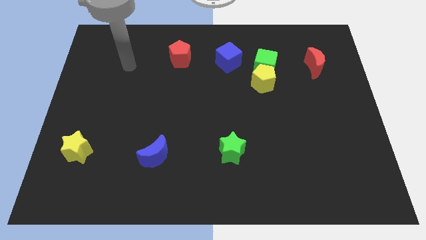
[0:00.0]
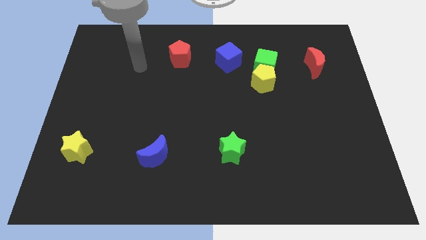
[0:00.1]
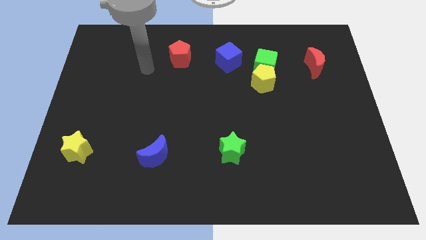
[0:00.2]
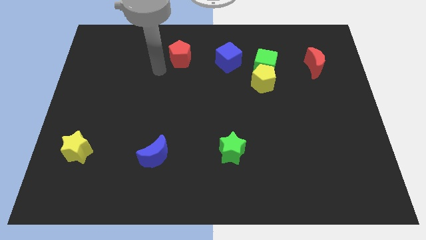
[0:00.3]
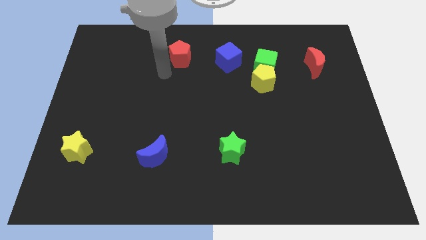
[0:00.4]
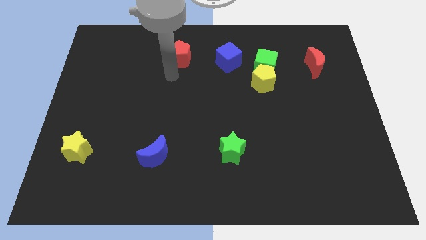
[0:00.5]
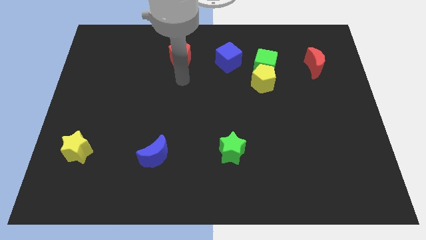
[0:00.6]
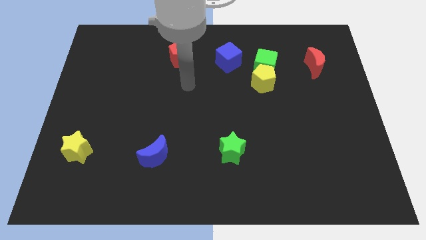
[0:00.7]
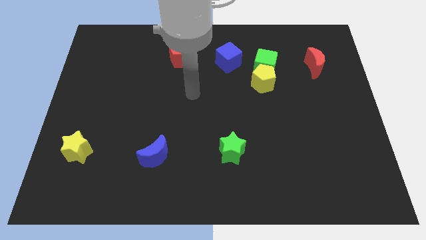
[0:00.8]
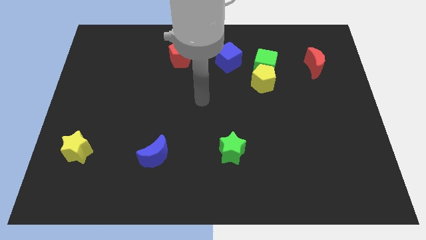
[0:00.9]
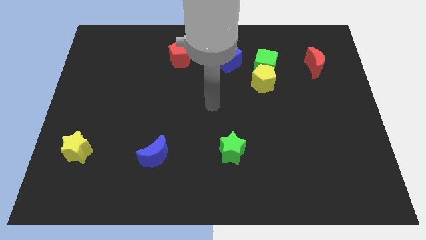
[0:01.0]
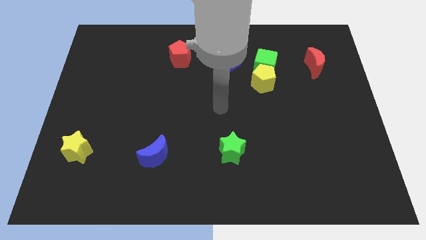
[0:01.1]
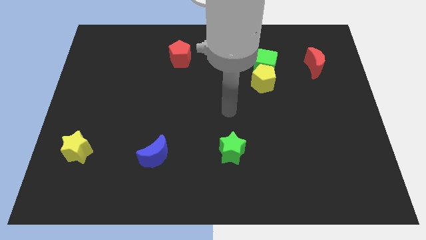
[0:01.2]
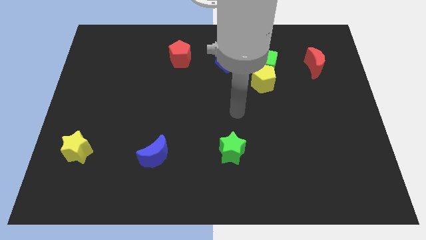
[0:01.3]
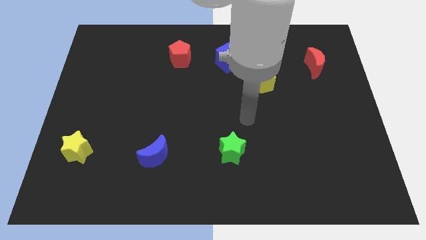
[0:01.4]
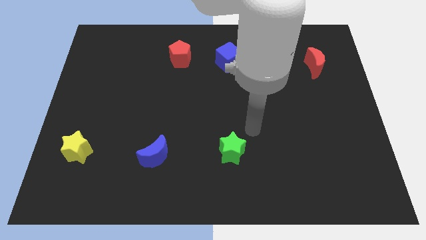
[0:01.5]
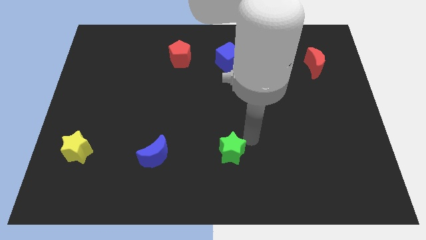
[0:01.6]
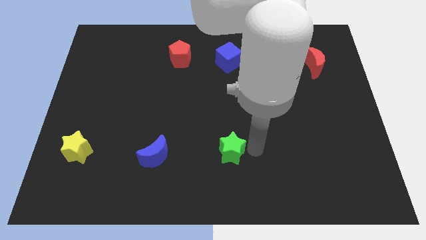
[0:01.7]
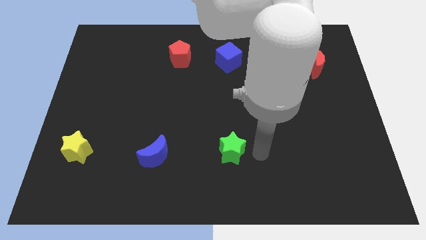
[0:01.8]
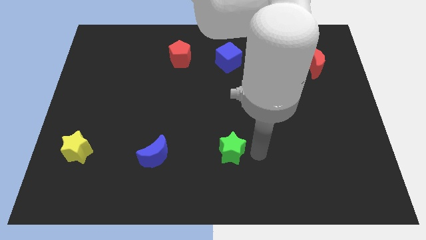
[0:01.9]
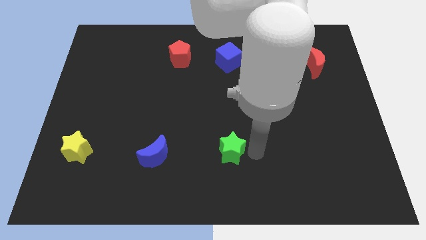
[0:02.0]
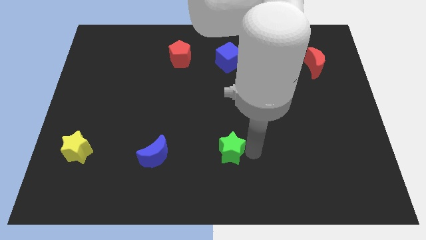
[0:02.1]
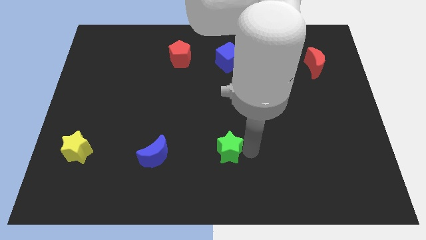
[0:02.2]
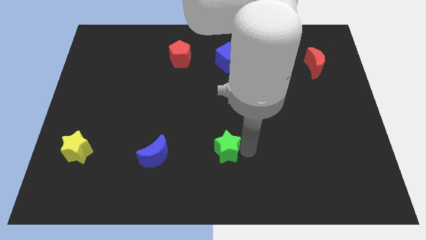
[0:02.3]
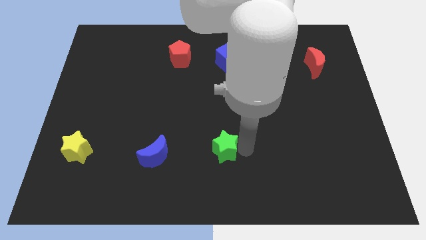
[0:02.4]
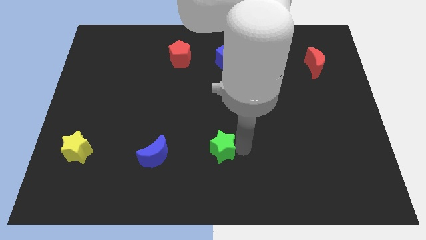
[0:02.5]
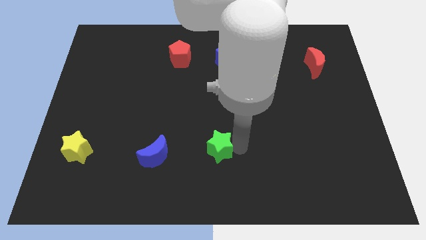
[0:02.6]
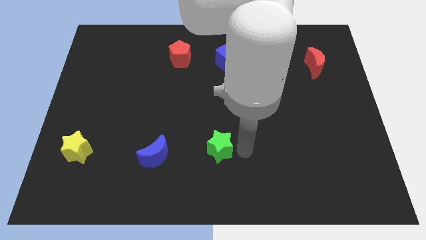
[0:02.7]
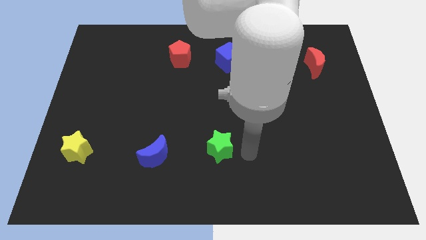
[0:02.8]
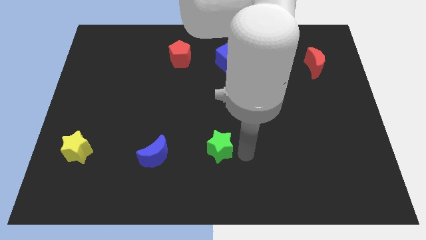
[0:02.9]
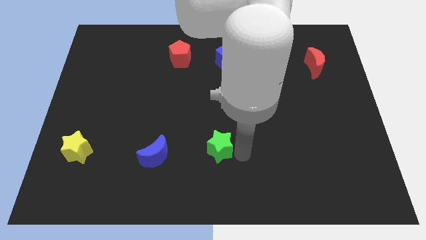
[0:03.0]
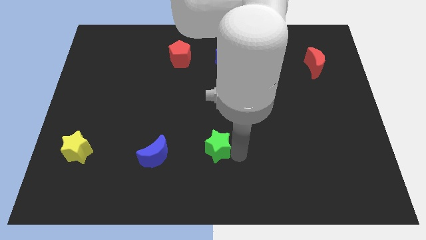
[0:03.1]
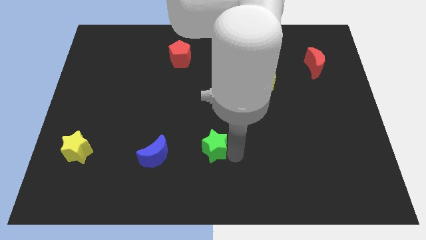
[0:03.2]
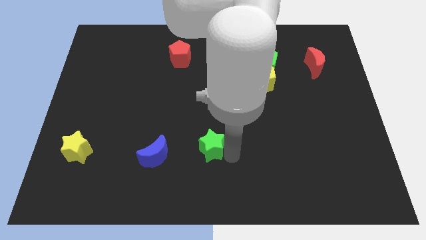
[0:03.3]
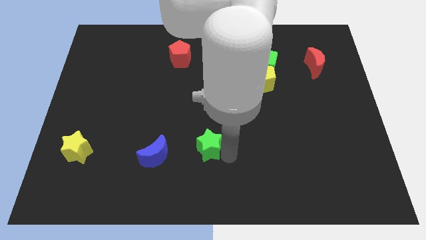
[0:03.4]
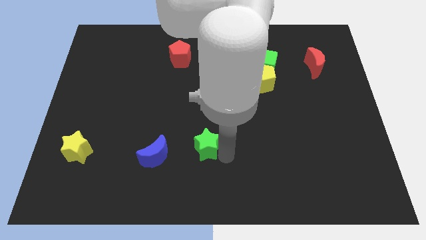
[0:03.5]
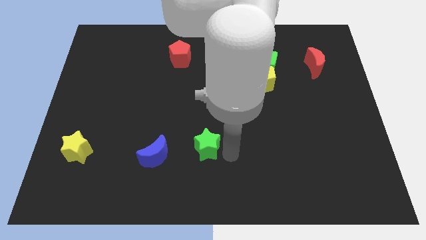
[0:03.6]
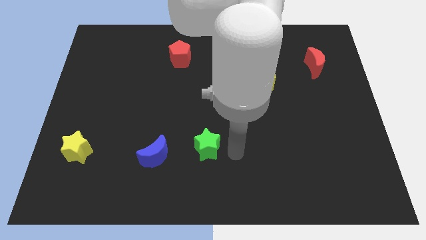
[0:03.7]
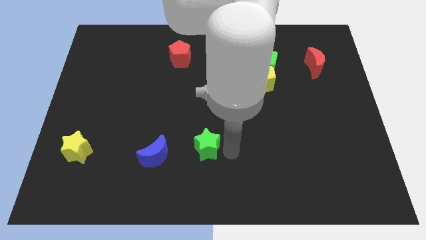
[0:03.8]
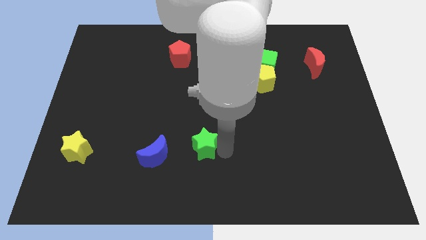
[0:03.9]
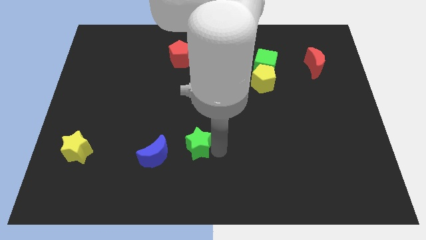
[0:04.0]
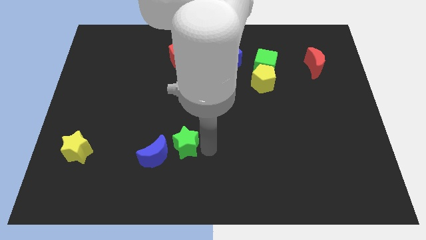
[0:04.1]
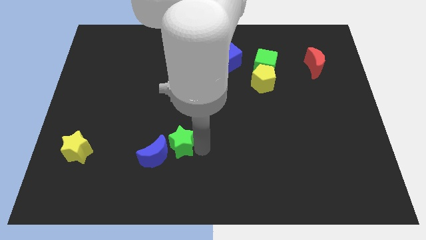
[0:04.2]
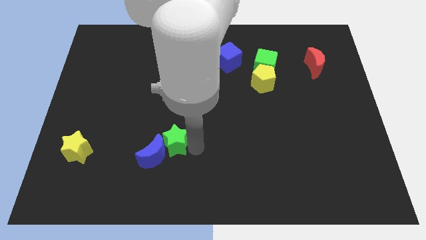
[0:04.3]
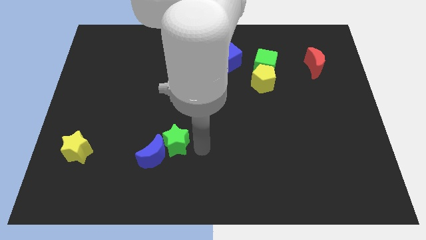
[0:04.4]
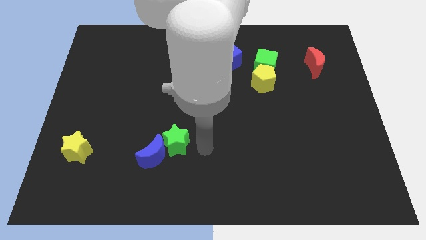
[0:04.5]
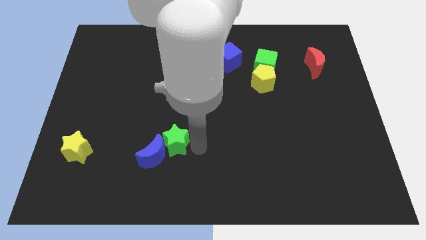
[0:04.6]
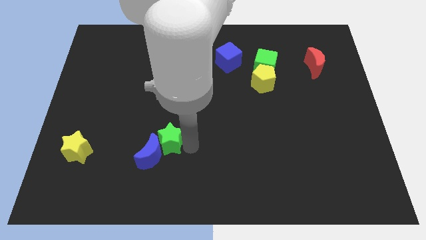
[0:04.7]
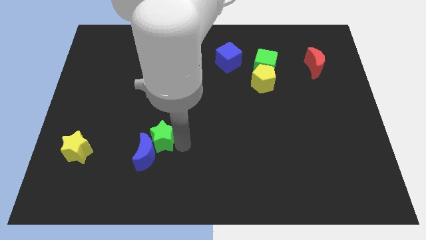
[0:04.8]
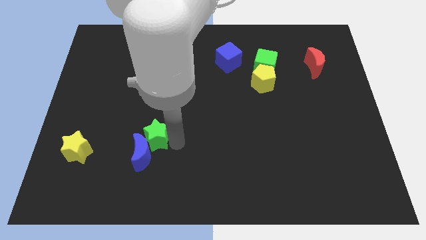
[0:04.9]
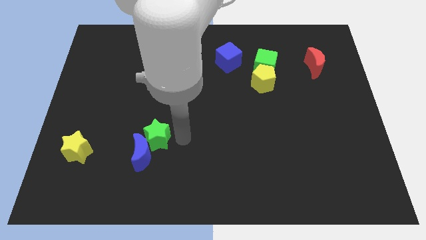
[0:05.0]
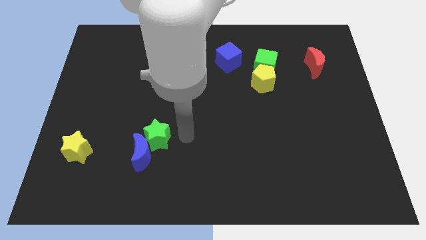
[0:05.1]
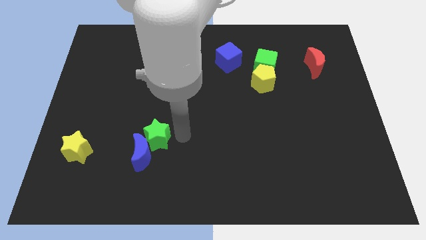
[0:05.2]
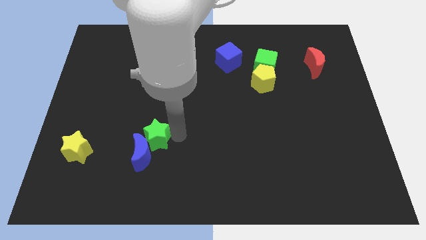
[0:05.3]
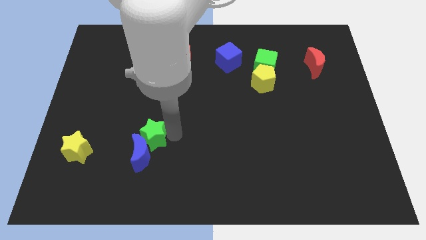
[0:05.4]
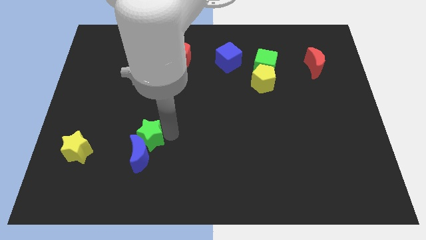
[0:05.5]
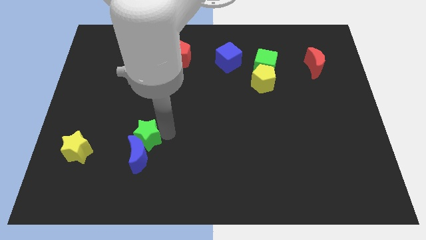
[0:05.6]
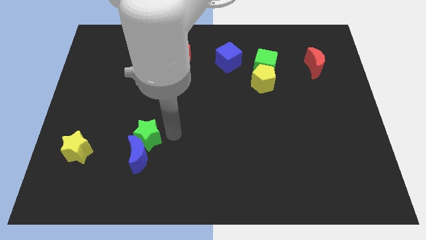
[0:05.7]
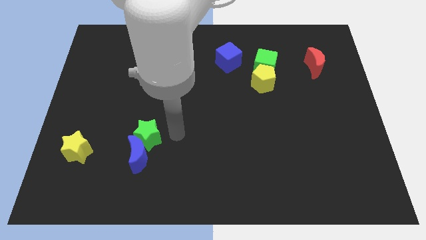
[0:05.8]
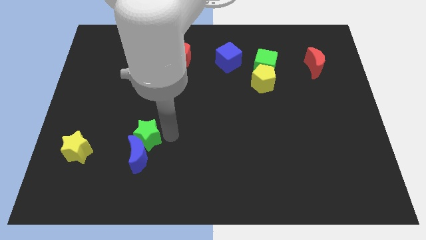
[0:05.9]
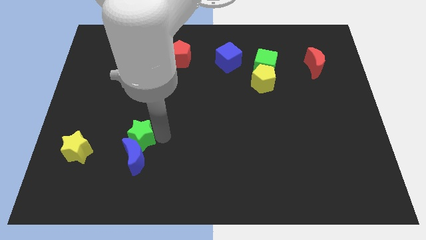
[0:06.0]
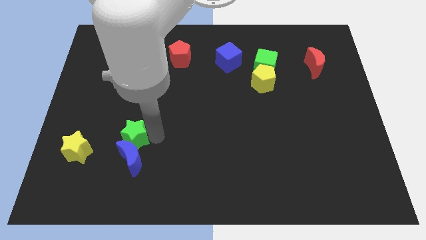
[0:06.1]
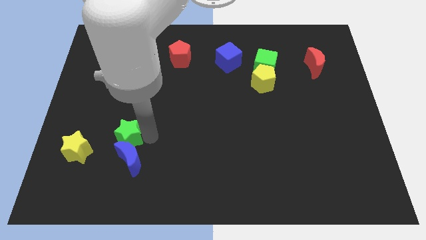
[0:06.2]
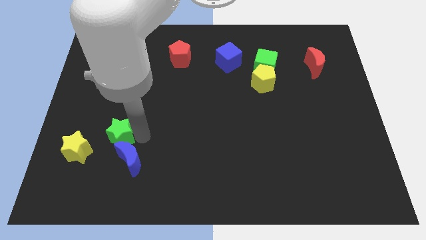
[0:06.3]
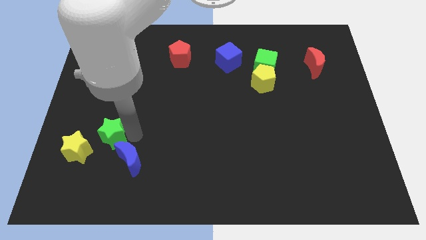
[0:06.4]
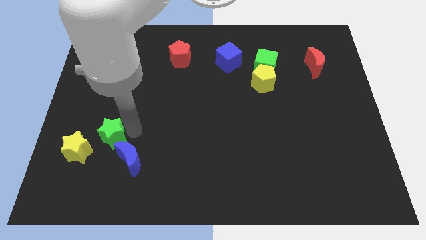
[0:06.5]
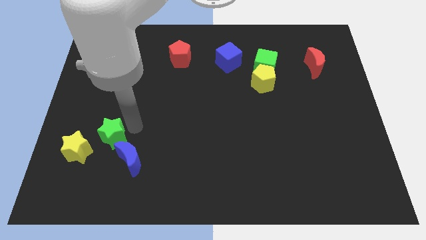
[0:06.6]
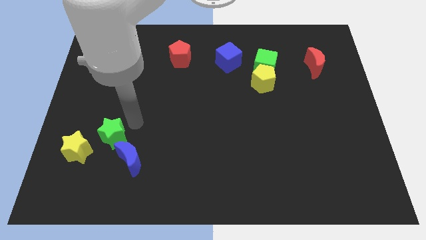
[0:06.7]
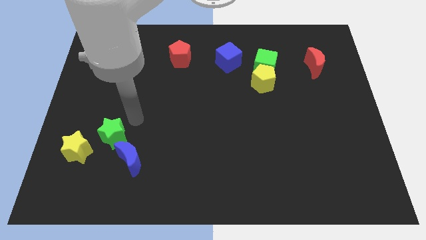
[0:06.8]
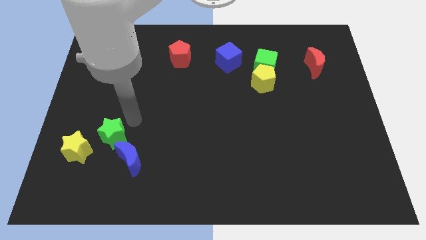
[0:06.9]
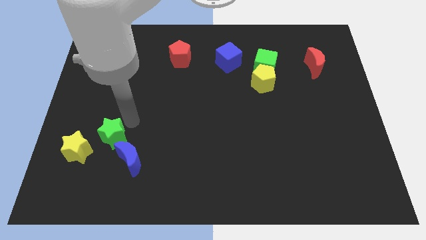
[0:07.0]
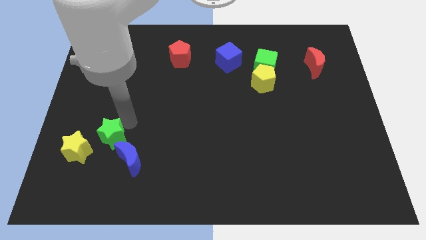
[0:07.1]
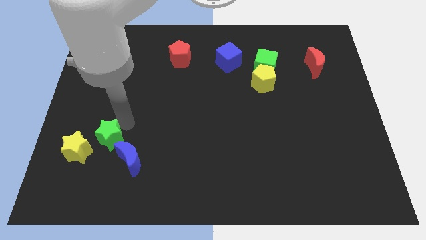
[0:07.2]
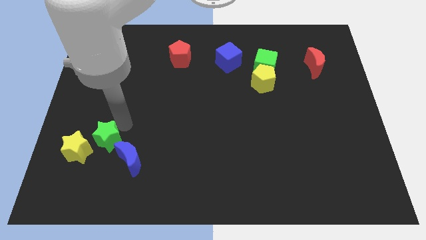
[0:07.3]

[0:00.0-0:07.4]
put the green star towards the yellow star

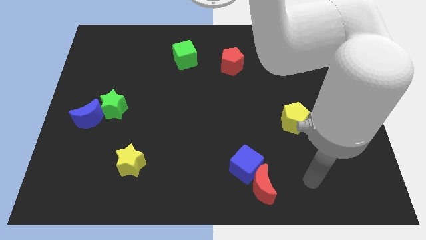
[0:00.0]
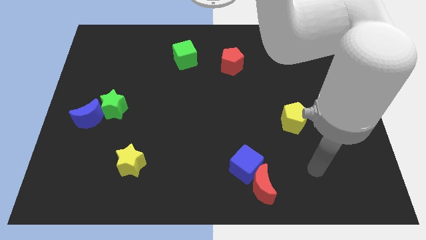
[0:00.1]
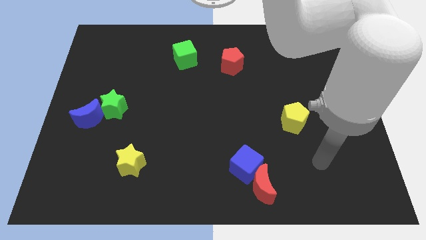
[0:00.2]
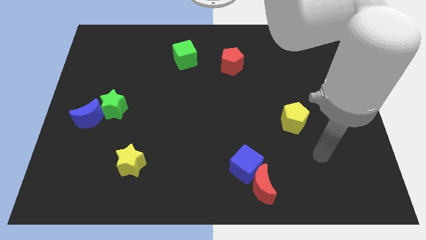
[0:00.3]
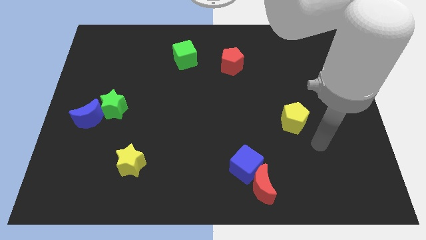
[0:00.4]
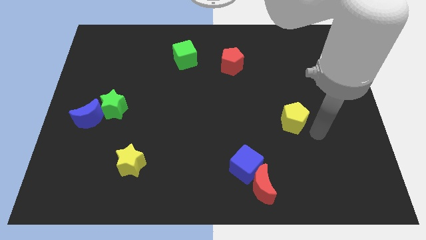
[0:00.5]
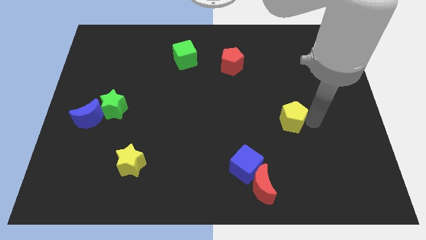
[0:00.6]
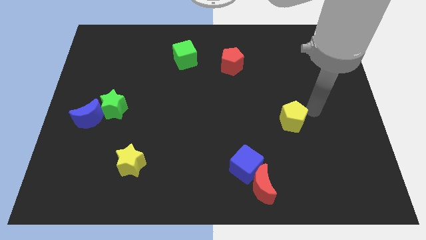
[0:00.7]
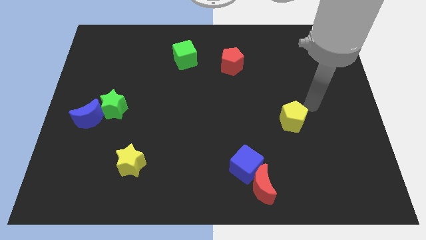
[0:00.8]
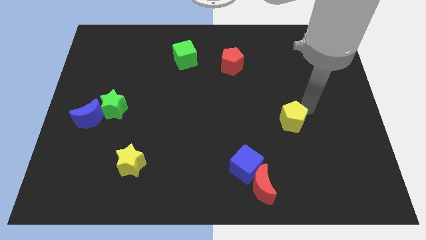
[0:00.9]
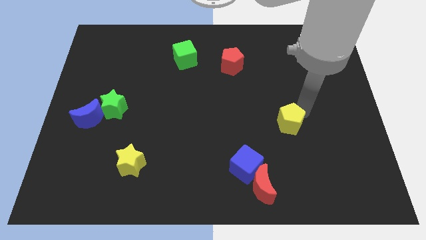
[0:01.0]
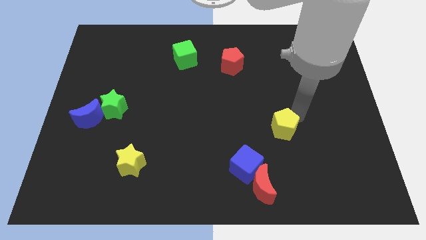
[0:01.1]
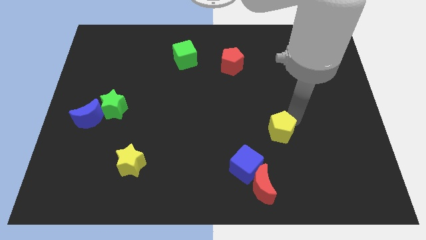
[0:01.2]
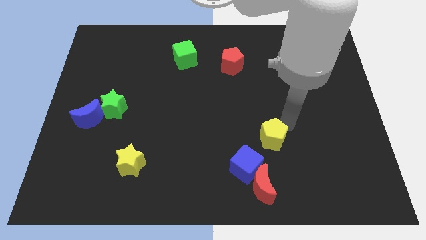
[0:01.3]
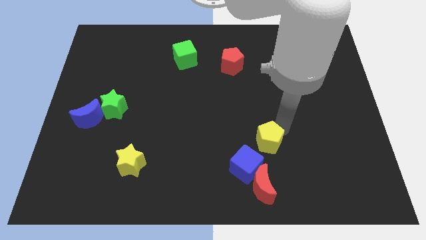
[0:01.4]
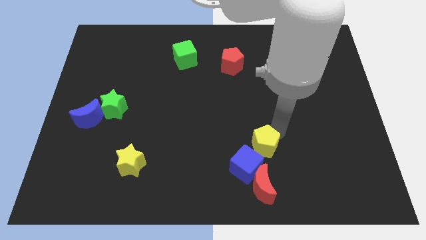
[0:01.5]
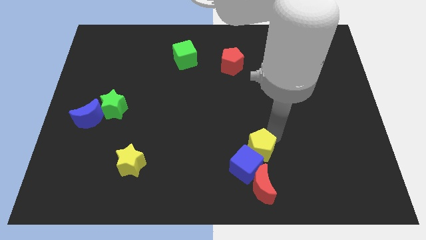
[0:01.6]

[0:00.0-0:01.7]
move the yellow pentagon to the blue cube
